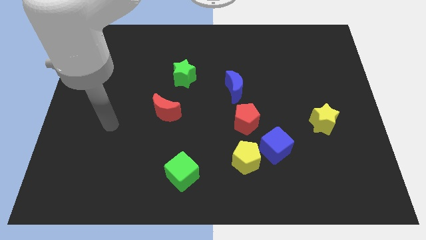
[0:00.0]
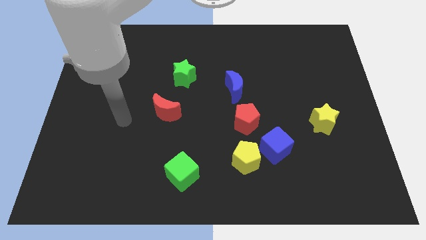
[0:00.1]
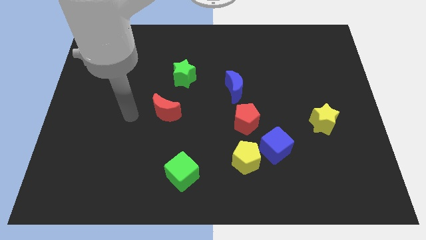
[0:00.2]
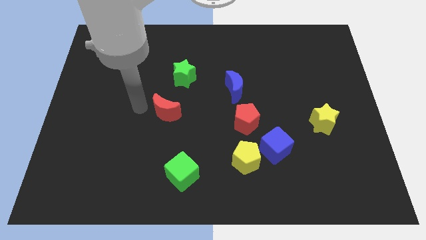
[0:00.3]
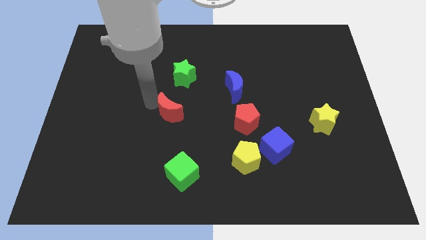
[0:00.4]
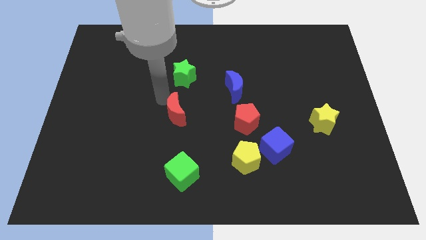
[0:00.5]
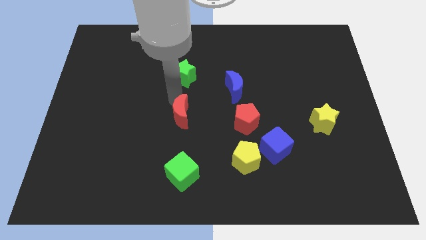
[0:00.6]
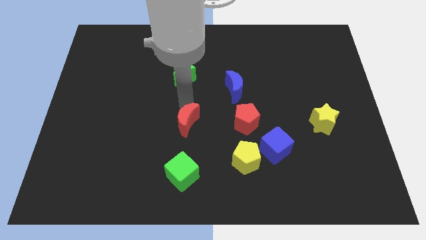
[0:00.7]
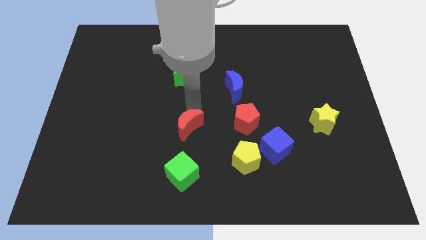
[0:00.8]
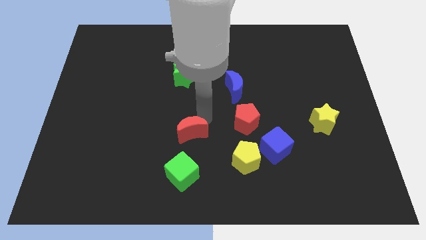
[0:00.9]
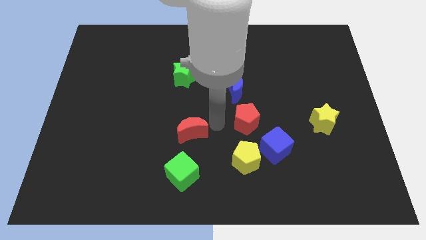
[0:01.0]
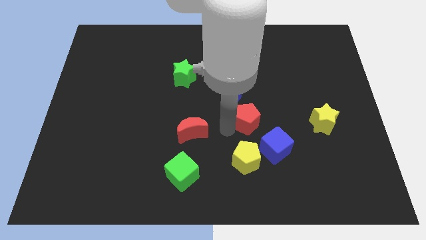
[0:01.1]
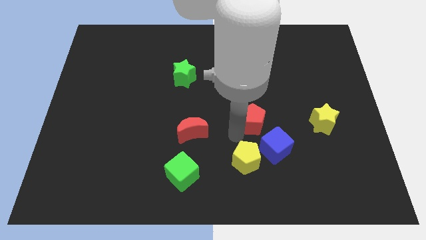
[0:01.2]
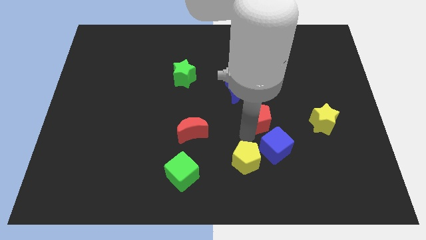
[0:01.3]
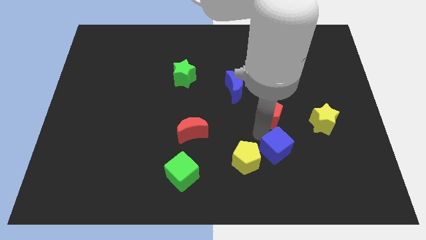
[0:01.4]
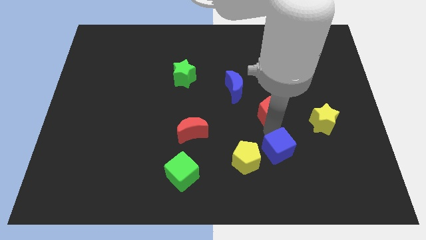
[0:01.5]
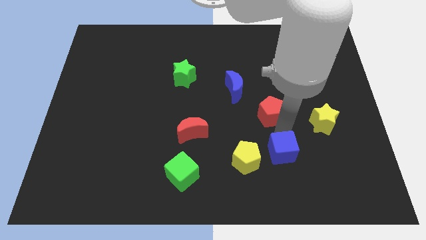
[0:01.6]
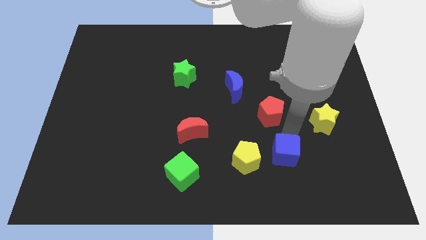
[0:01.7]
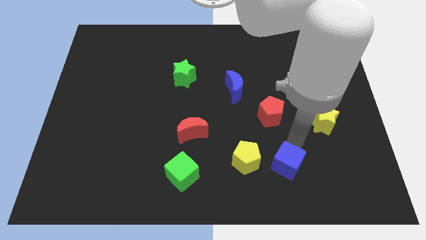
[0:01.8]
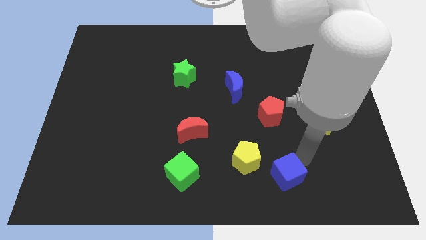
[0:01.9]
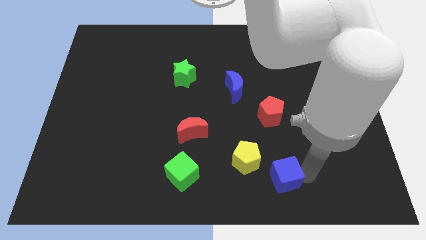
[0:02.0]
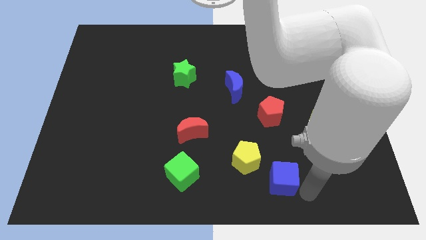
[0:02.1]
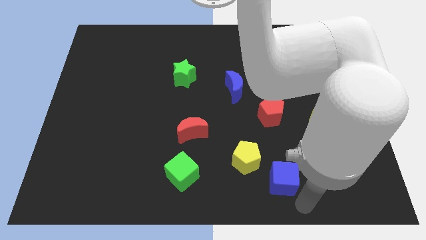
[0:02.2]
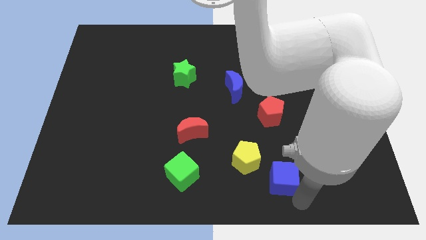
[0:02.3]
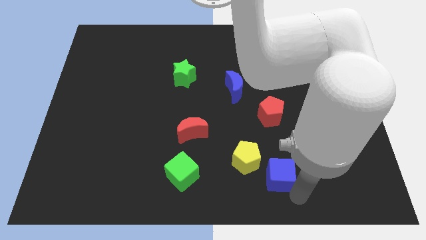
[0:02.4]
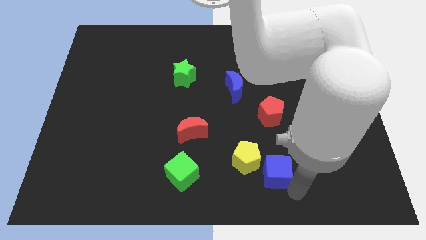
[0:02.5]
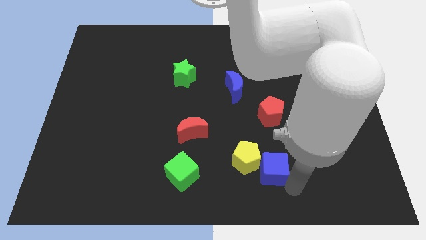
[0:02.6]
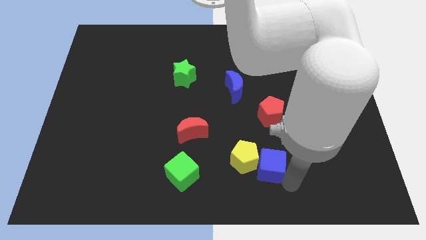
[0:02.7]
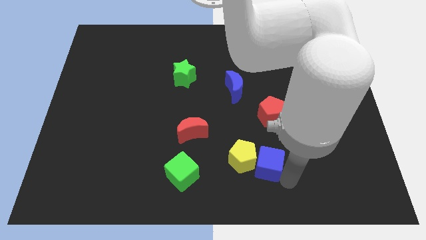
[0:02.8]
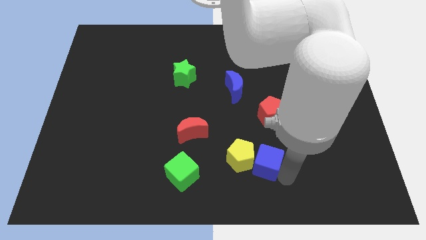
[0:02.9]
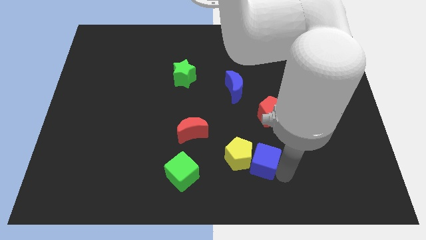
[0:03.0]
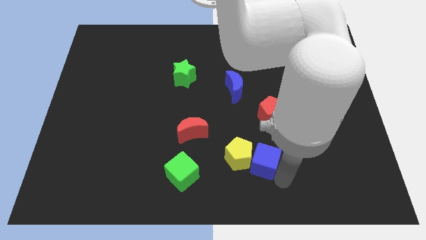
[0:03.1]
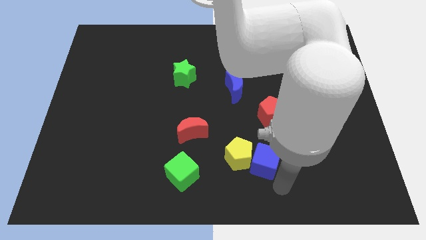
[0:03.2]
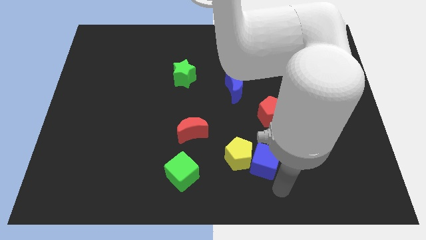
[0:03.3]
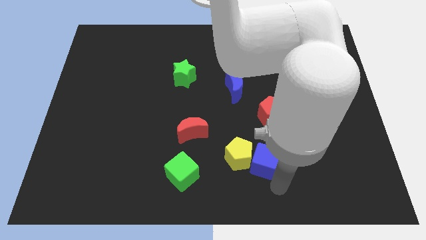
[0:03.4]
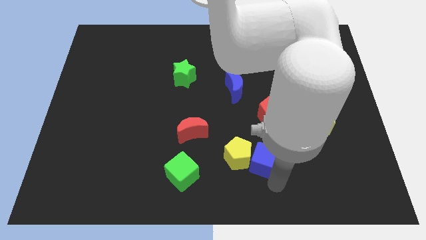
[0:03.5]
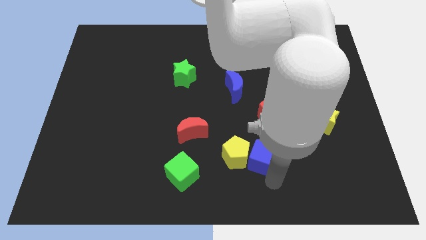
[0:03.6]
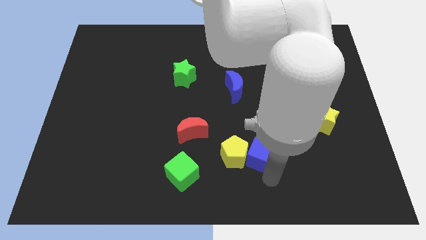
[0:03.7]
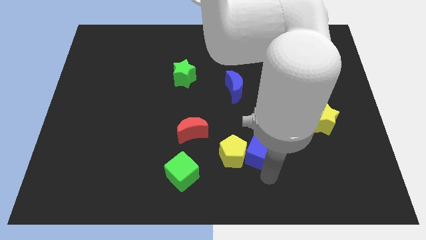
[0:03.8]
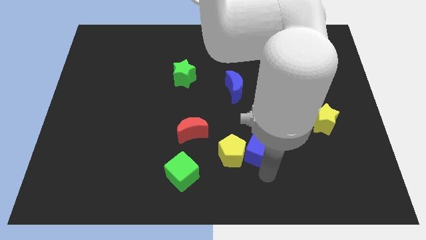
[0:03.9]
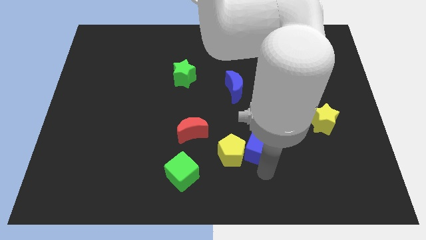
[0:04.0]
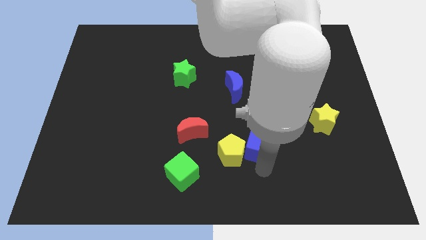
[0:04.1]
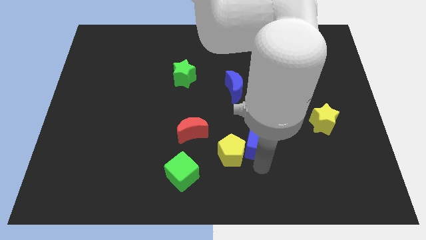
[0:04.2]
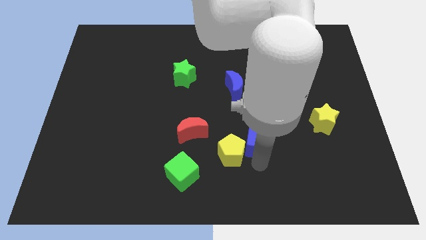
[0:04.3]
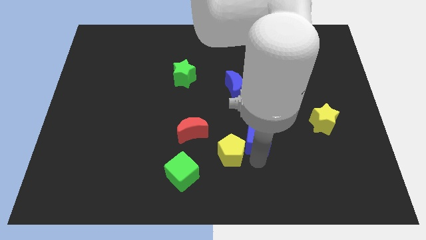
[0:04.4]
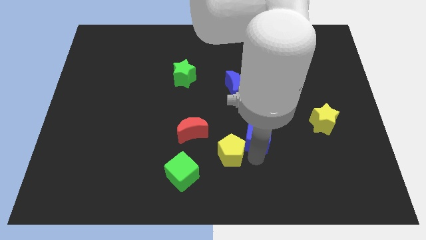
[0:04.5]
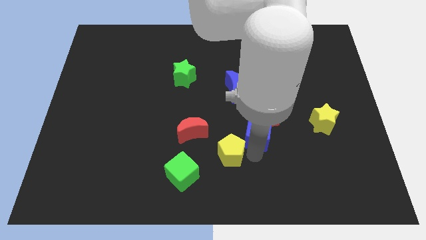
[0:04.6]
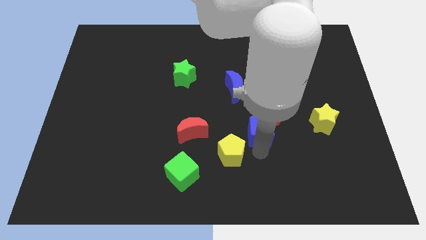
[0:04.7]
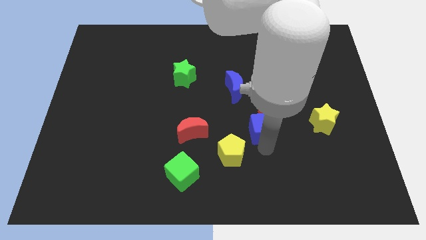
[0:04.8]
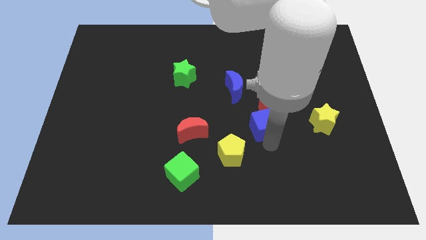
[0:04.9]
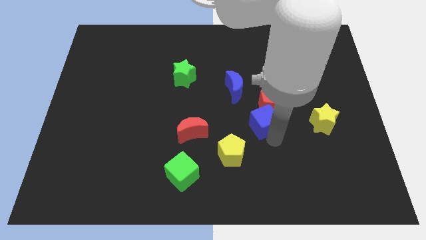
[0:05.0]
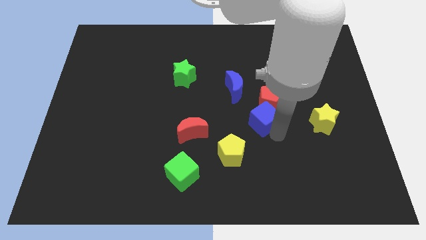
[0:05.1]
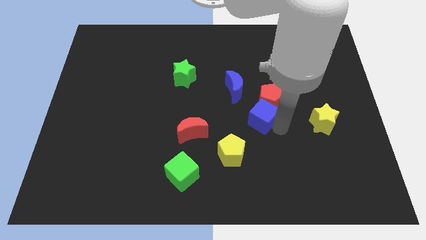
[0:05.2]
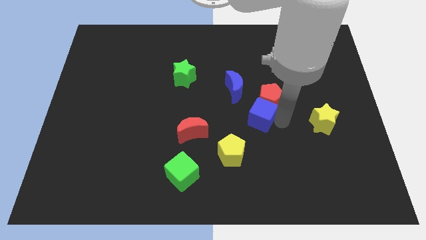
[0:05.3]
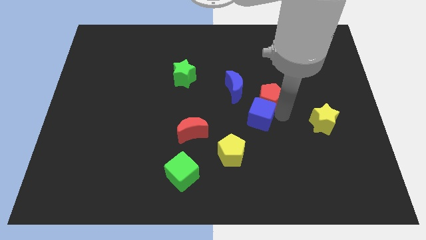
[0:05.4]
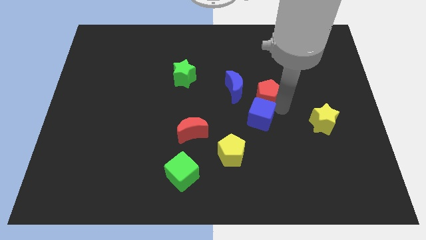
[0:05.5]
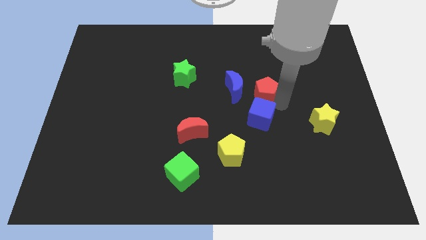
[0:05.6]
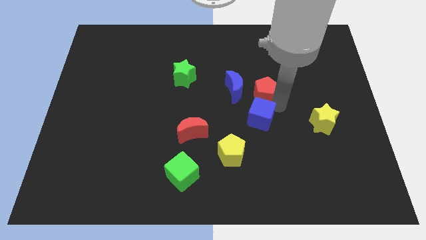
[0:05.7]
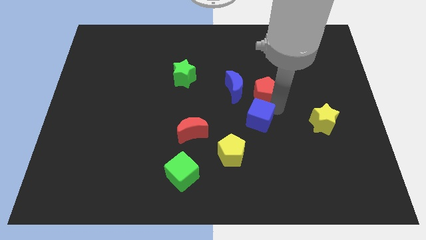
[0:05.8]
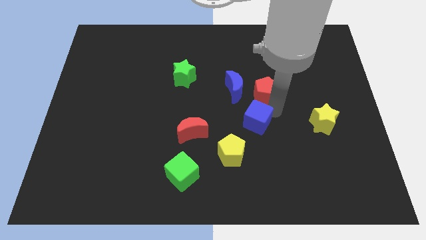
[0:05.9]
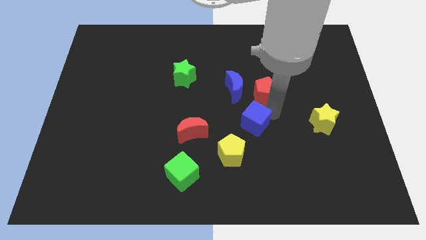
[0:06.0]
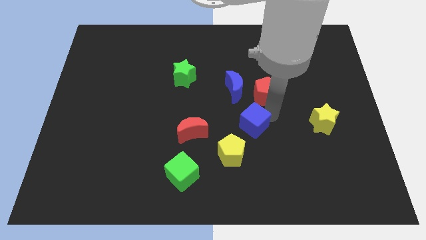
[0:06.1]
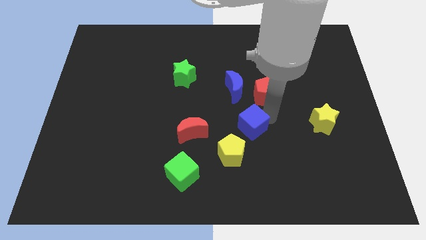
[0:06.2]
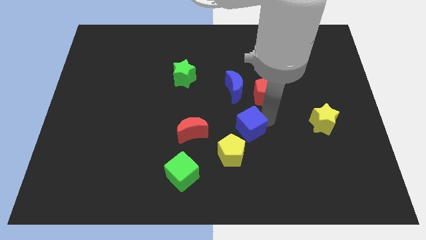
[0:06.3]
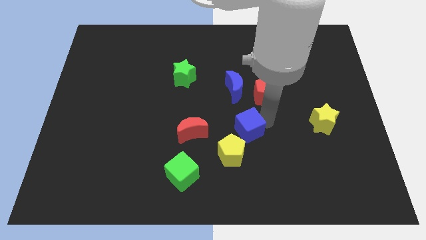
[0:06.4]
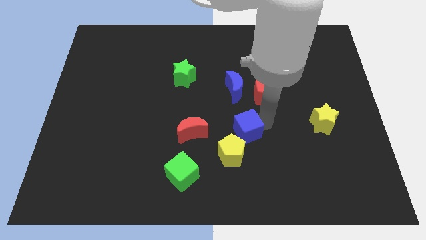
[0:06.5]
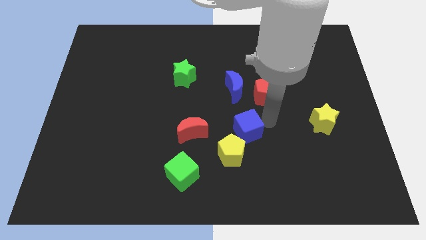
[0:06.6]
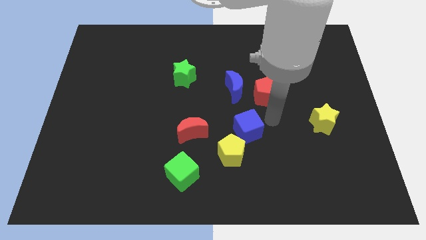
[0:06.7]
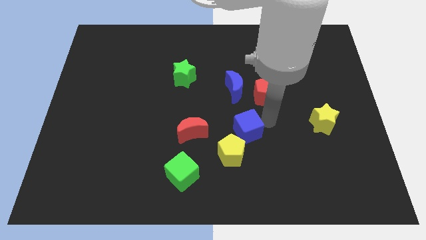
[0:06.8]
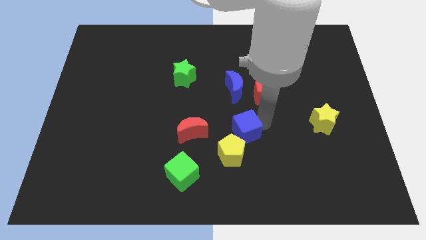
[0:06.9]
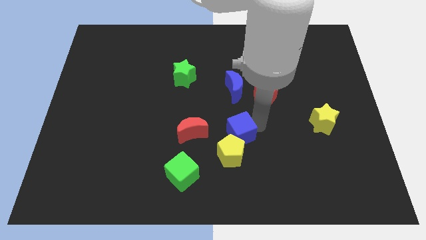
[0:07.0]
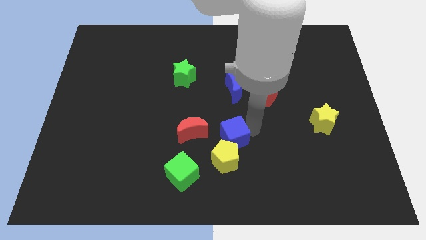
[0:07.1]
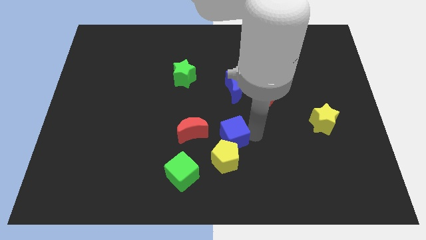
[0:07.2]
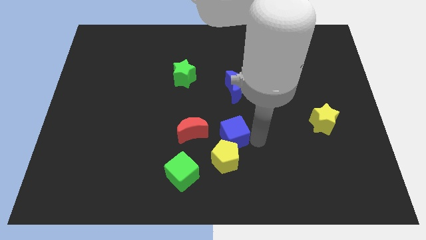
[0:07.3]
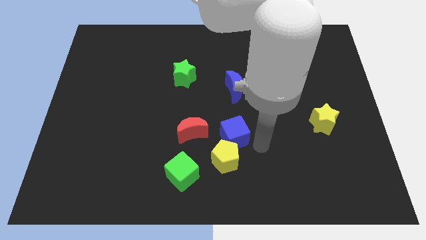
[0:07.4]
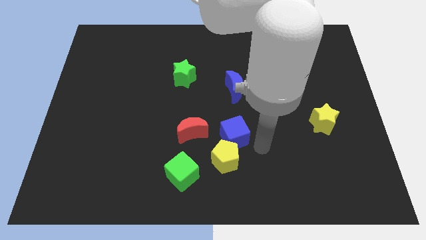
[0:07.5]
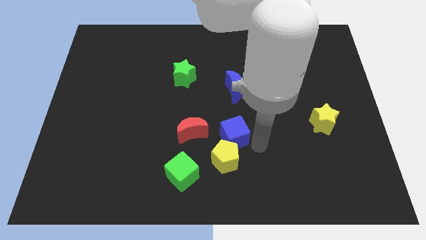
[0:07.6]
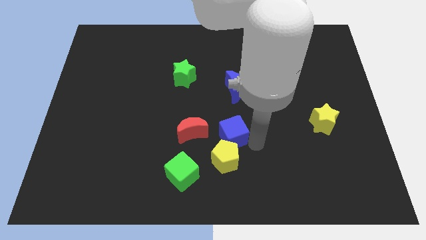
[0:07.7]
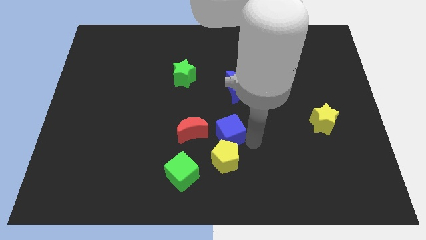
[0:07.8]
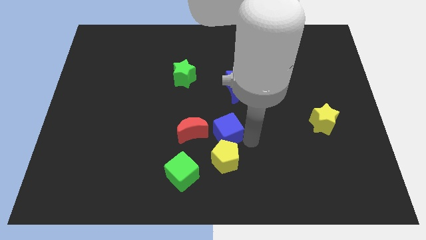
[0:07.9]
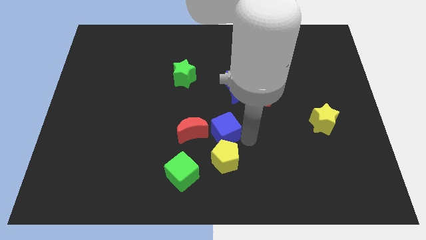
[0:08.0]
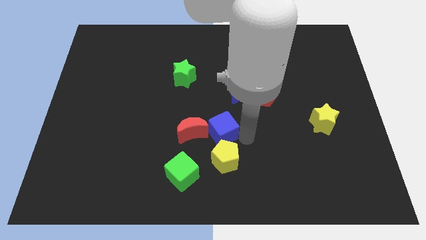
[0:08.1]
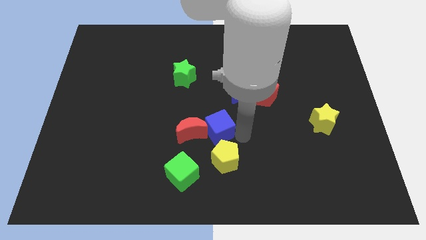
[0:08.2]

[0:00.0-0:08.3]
put the blue cube towards the red moon
